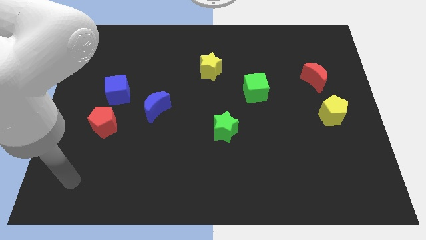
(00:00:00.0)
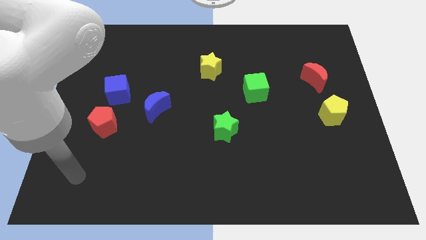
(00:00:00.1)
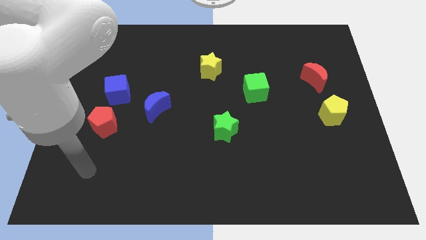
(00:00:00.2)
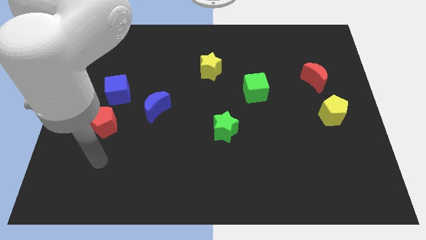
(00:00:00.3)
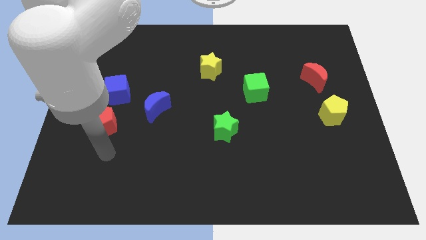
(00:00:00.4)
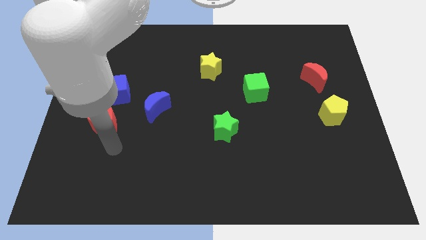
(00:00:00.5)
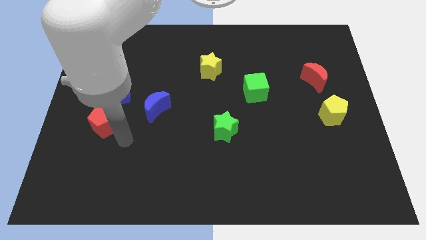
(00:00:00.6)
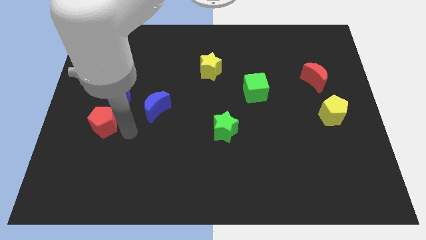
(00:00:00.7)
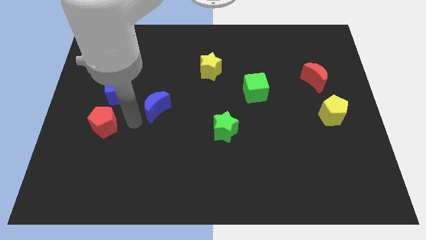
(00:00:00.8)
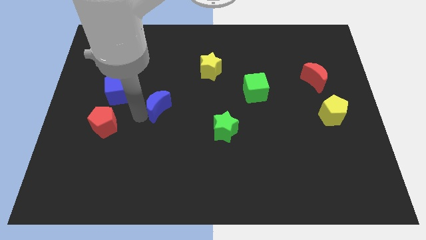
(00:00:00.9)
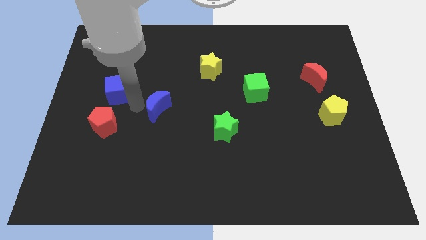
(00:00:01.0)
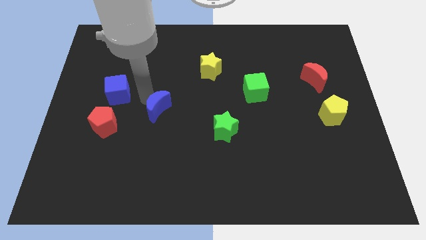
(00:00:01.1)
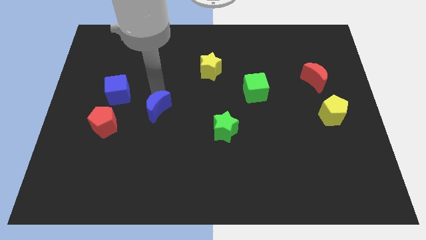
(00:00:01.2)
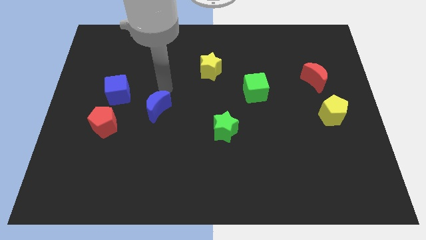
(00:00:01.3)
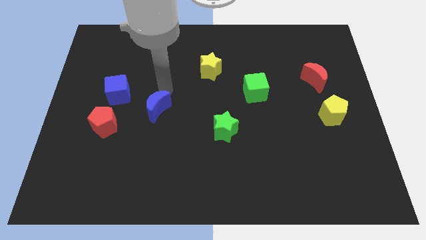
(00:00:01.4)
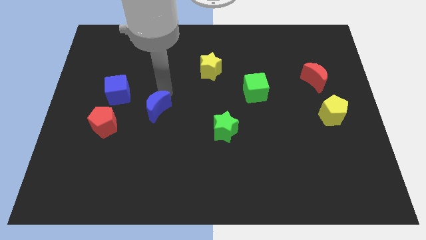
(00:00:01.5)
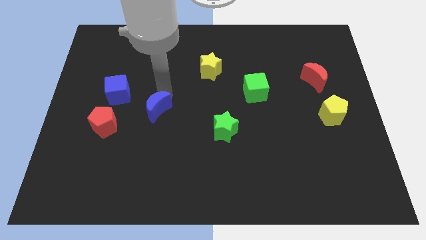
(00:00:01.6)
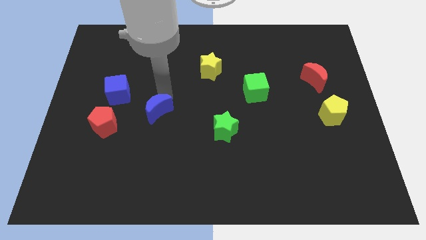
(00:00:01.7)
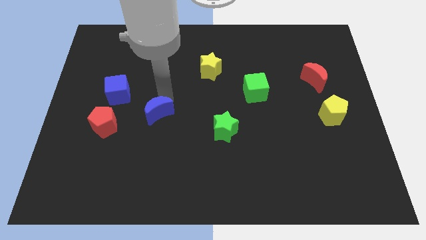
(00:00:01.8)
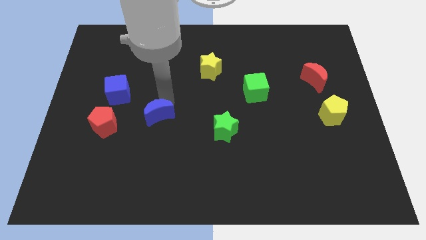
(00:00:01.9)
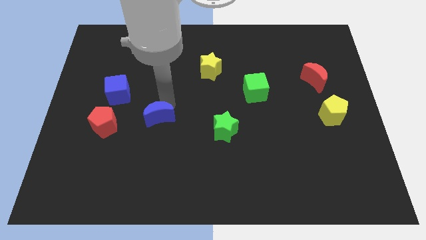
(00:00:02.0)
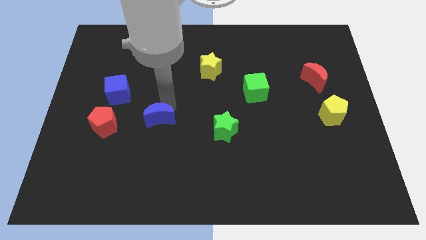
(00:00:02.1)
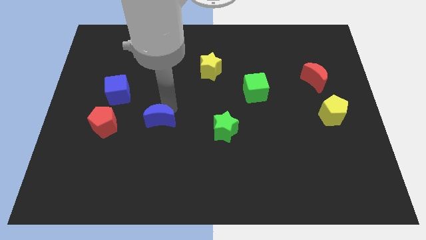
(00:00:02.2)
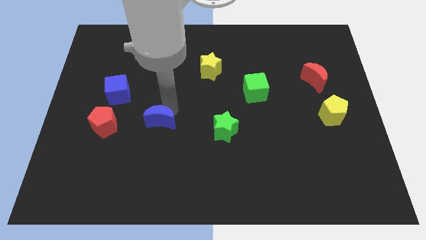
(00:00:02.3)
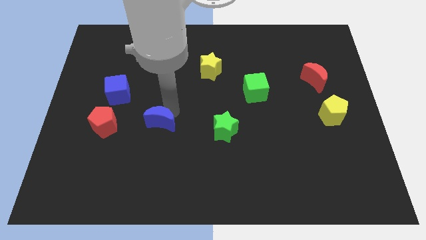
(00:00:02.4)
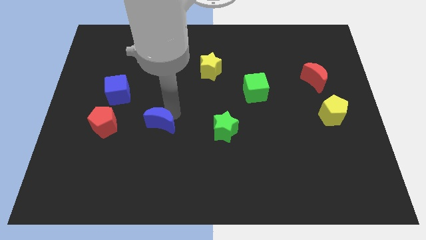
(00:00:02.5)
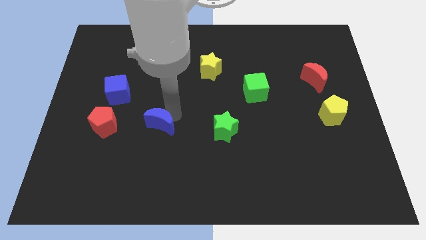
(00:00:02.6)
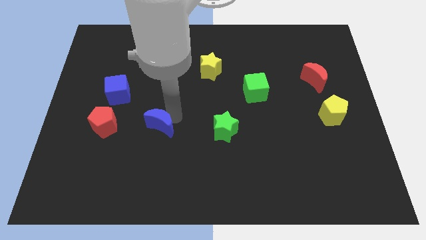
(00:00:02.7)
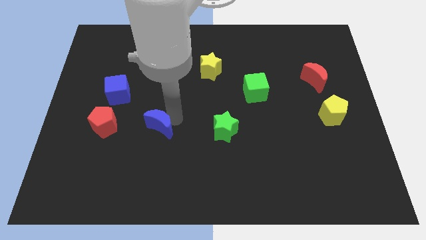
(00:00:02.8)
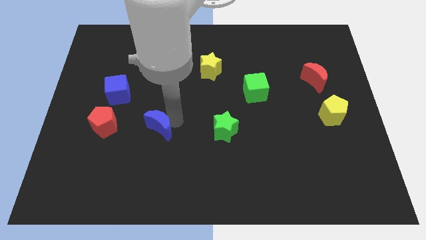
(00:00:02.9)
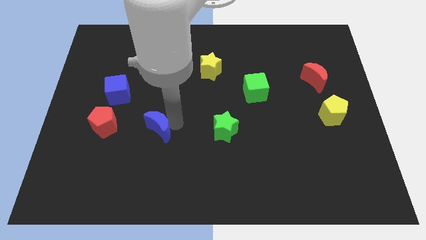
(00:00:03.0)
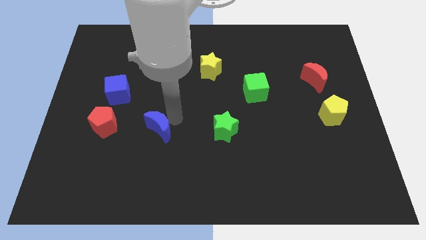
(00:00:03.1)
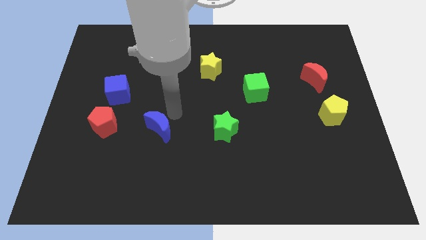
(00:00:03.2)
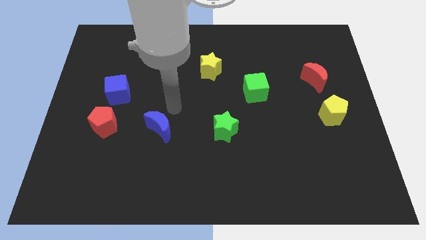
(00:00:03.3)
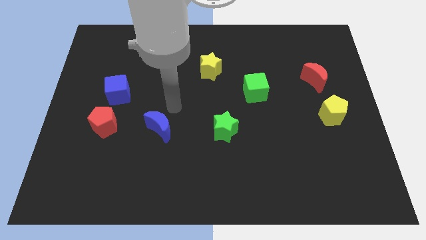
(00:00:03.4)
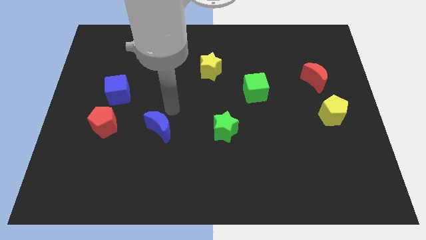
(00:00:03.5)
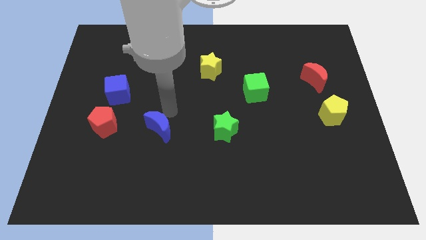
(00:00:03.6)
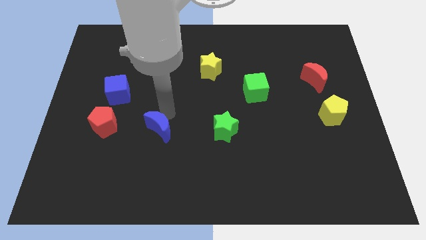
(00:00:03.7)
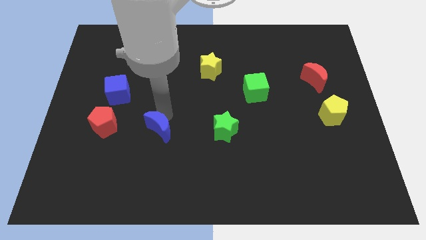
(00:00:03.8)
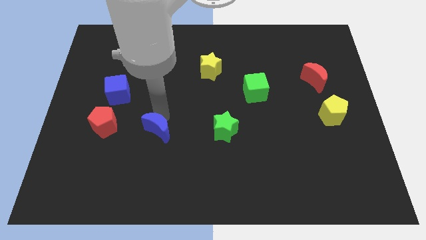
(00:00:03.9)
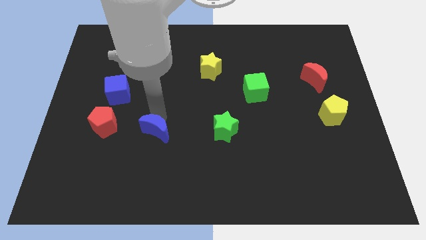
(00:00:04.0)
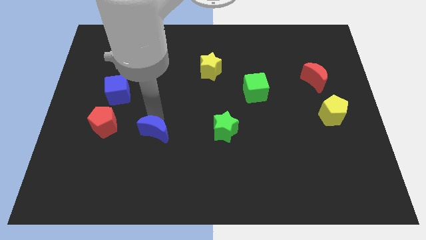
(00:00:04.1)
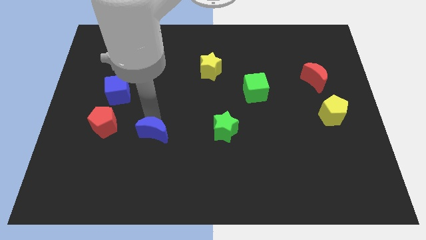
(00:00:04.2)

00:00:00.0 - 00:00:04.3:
slide the blue moon down slightly

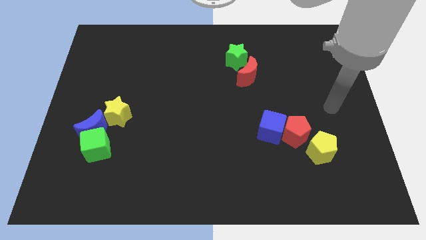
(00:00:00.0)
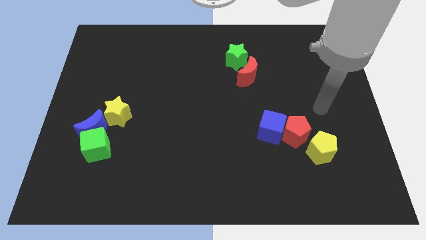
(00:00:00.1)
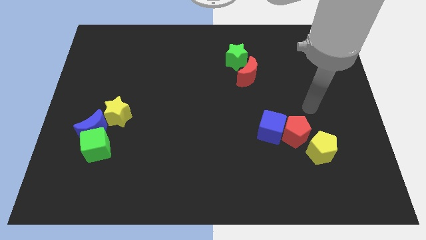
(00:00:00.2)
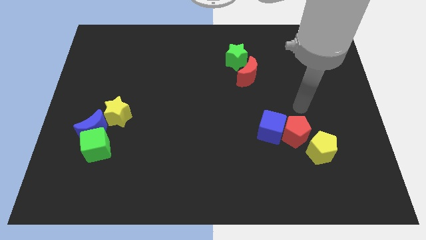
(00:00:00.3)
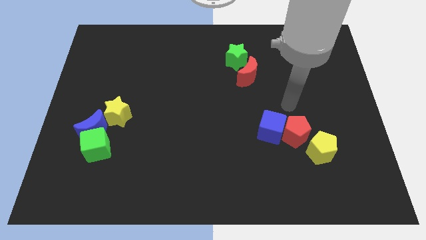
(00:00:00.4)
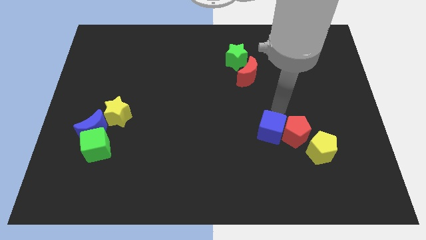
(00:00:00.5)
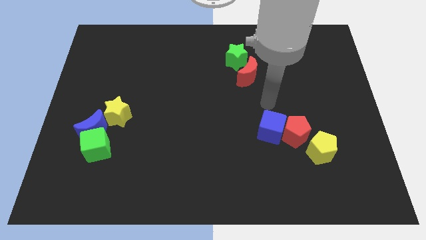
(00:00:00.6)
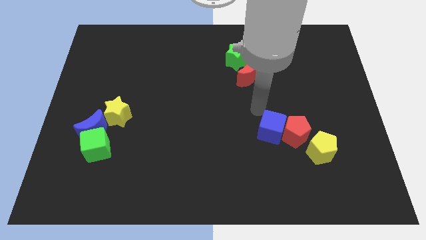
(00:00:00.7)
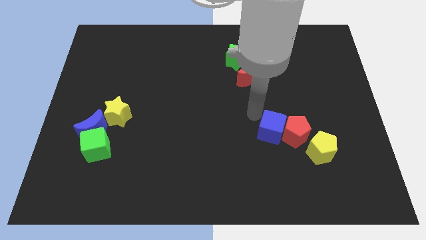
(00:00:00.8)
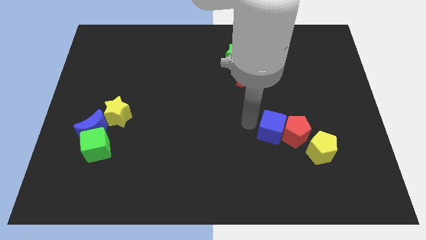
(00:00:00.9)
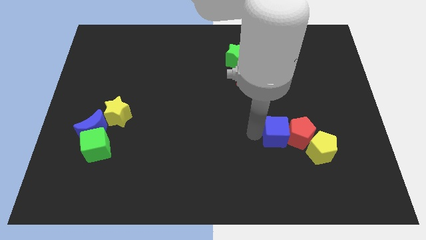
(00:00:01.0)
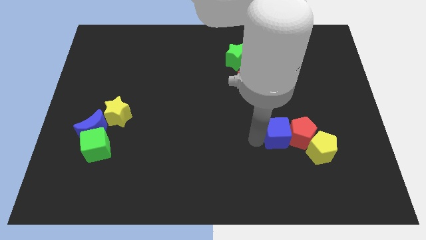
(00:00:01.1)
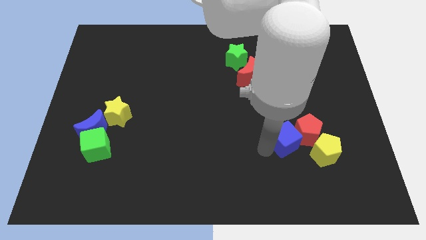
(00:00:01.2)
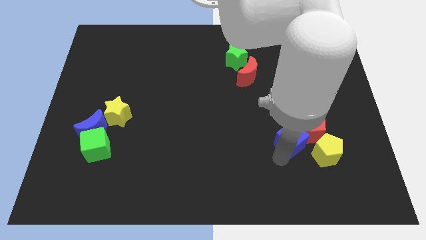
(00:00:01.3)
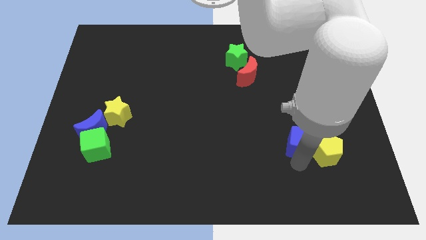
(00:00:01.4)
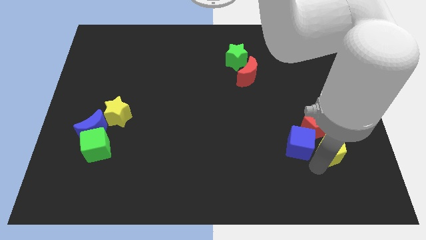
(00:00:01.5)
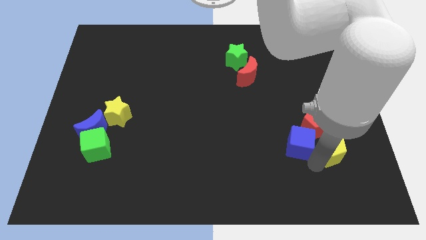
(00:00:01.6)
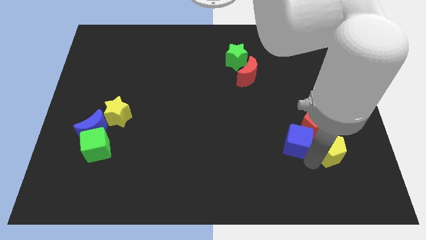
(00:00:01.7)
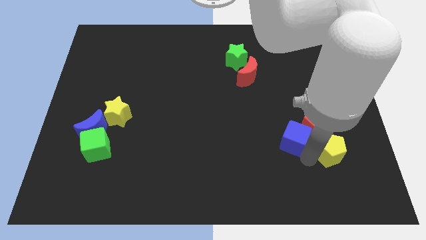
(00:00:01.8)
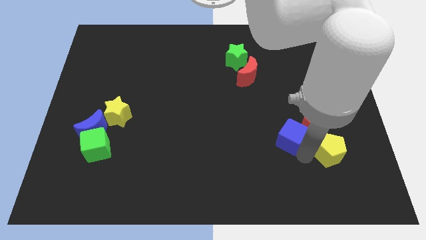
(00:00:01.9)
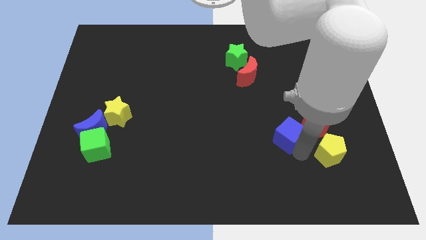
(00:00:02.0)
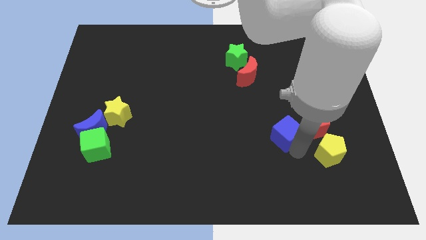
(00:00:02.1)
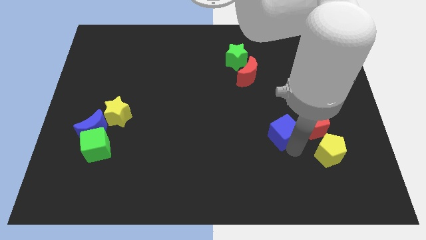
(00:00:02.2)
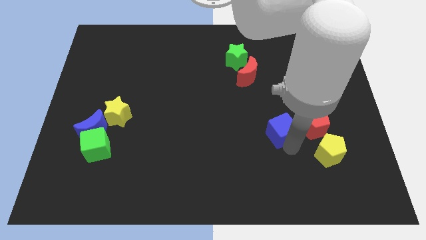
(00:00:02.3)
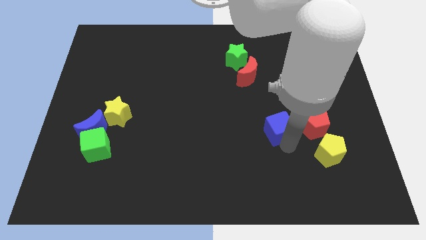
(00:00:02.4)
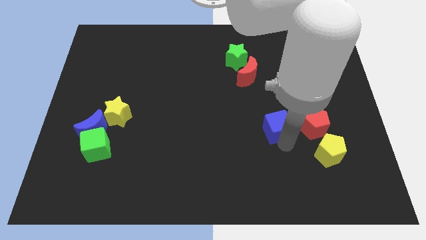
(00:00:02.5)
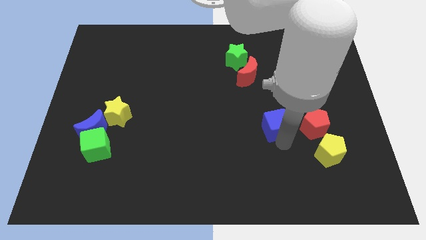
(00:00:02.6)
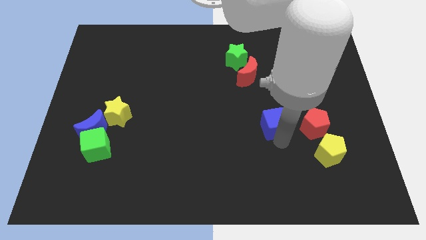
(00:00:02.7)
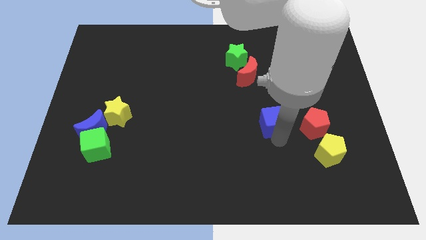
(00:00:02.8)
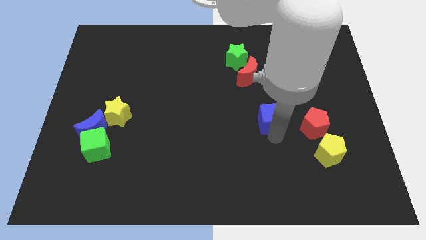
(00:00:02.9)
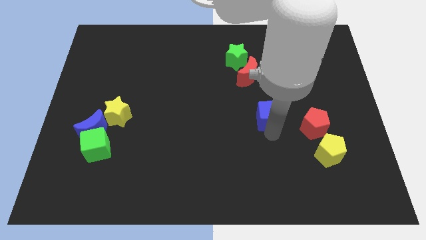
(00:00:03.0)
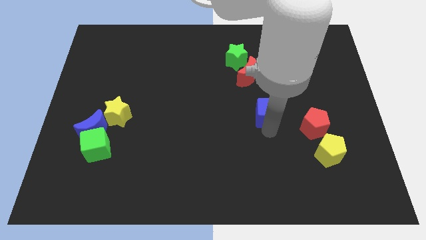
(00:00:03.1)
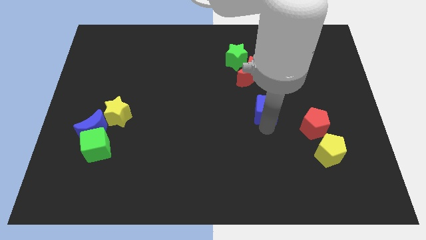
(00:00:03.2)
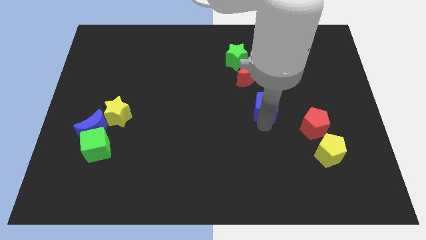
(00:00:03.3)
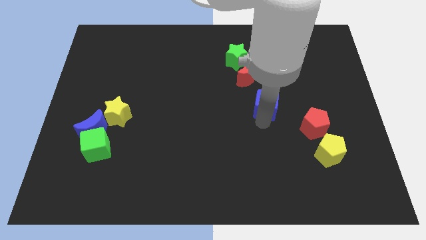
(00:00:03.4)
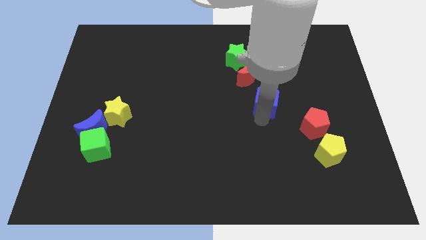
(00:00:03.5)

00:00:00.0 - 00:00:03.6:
move the blue cube a little upwards
